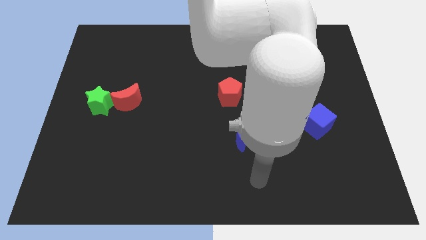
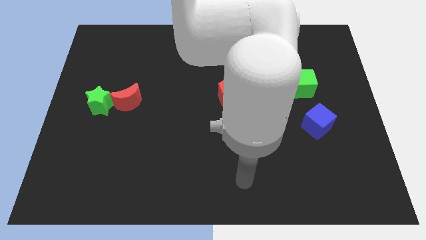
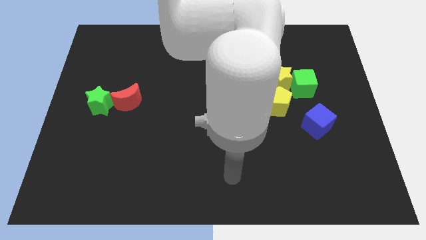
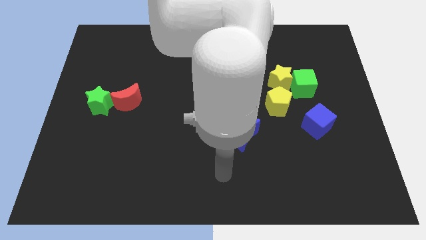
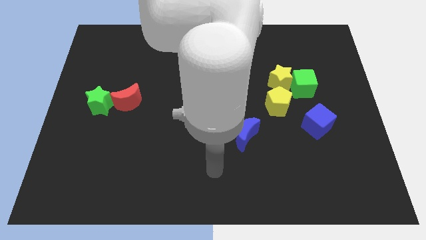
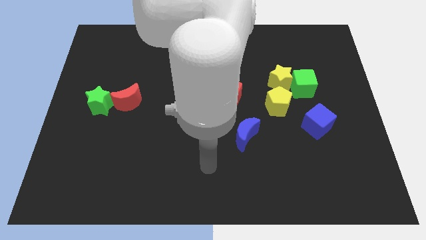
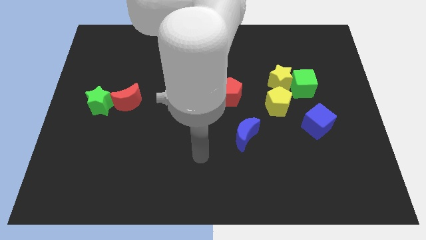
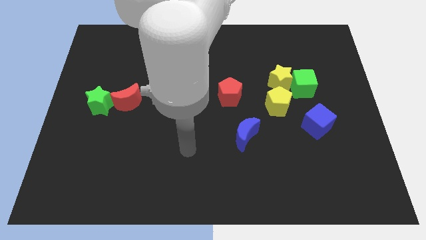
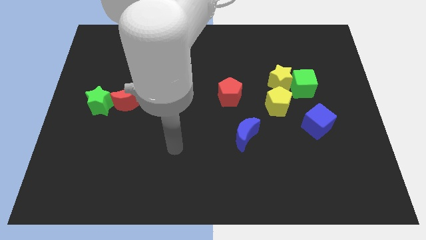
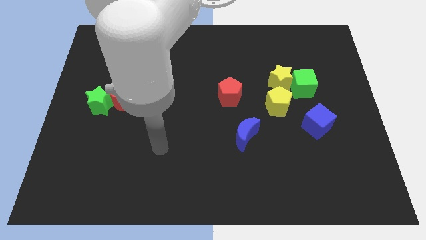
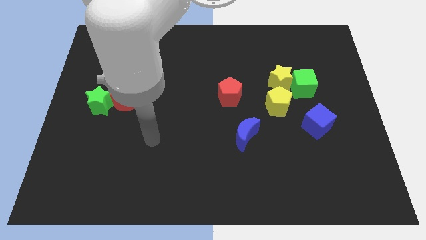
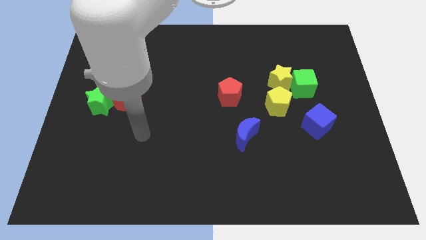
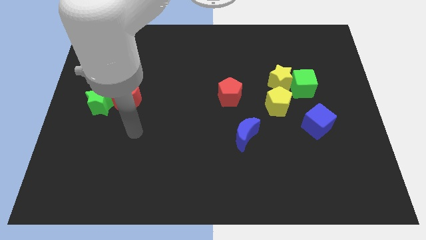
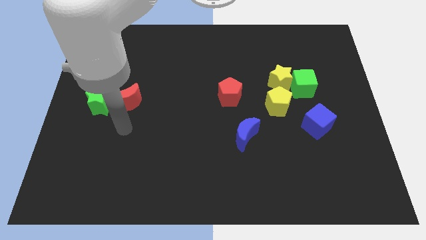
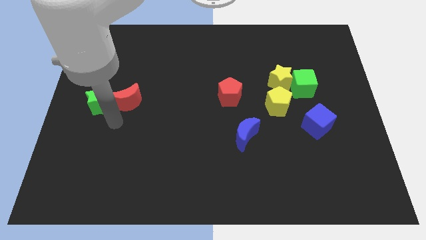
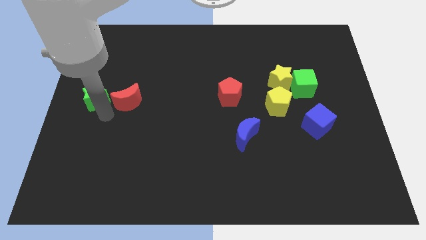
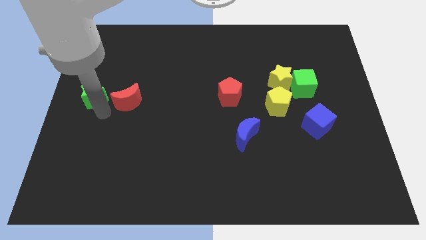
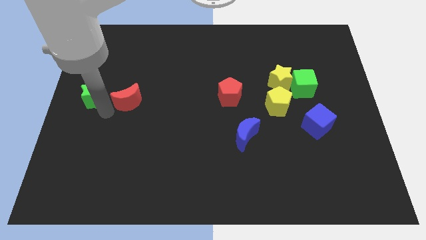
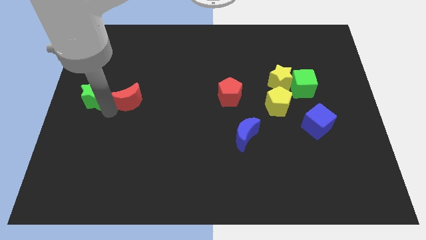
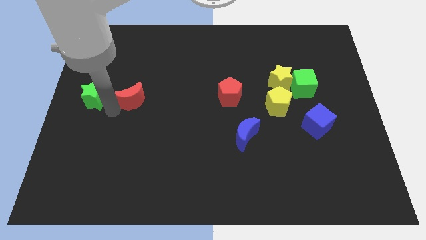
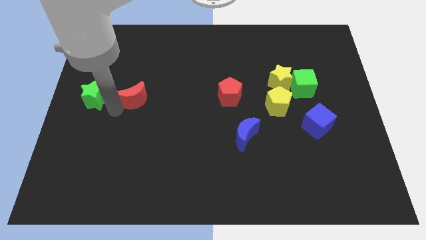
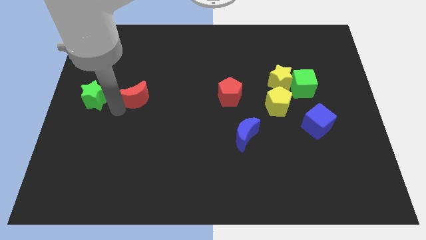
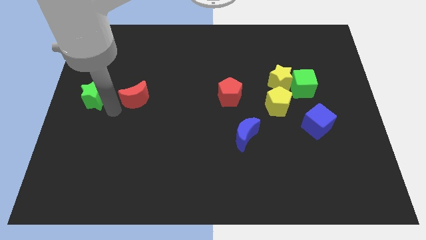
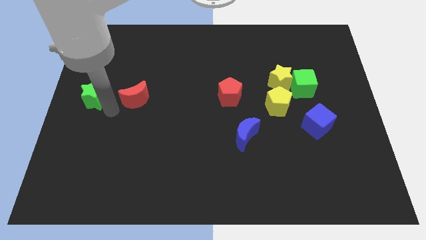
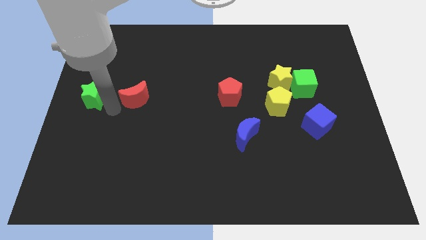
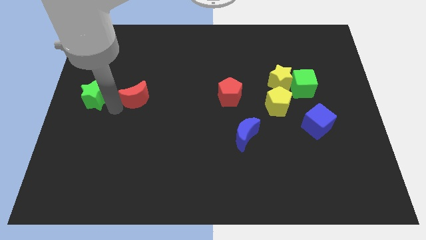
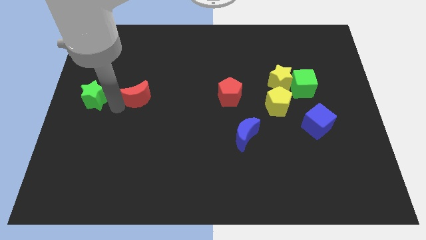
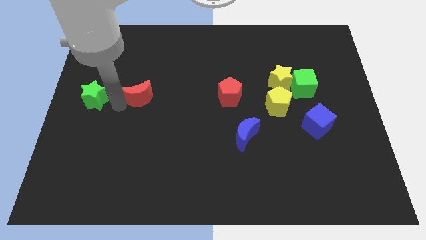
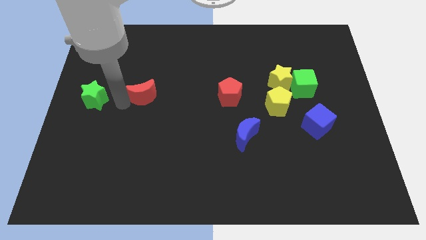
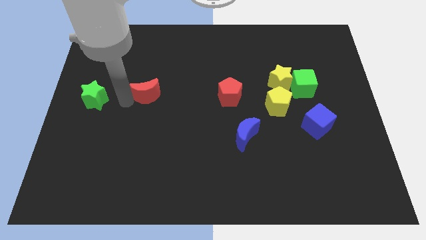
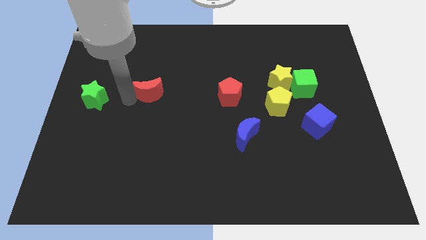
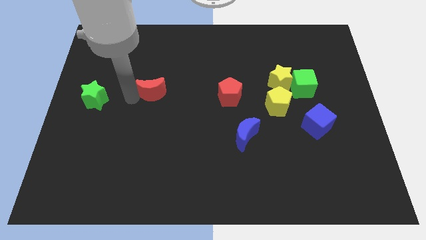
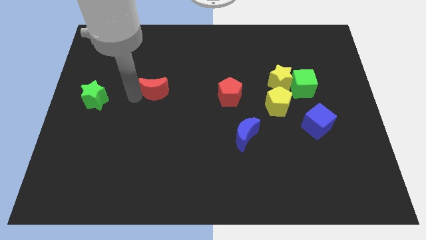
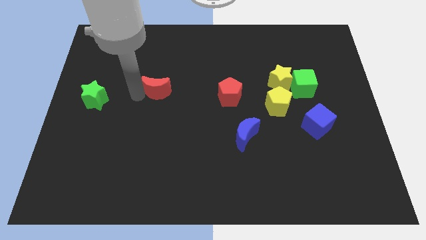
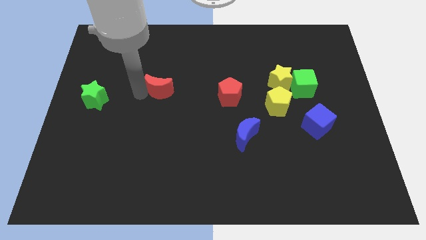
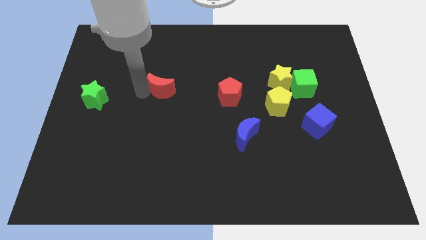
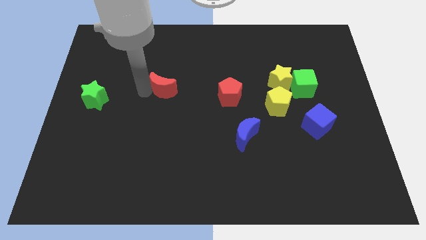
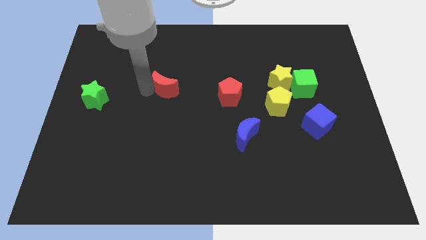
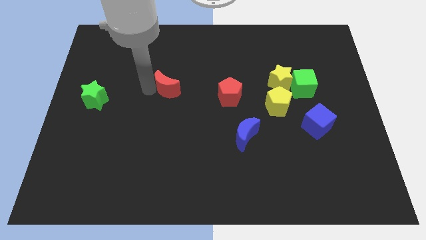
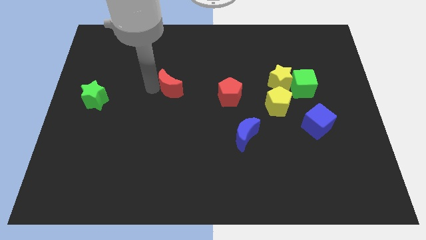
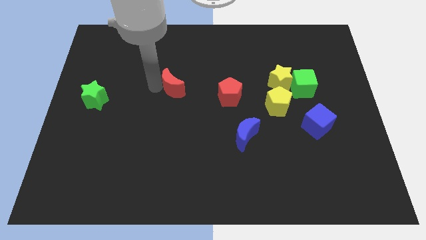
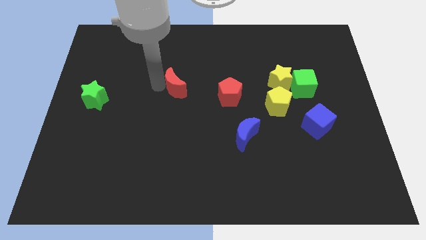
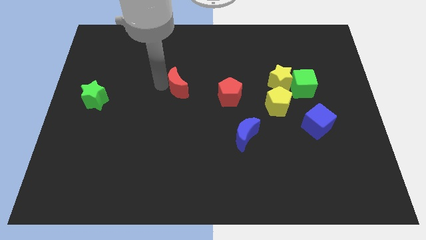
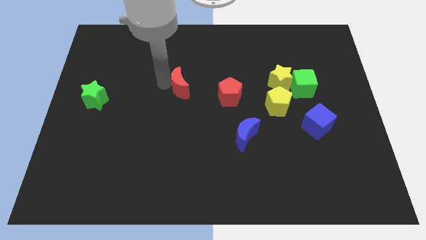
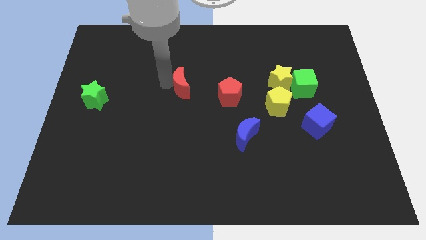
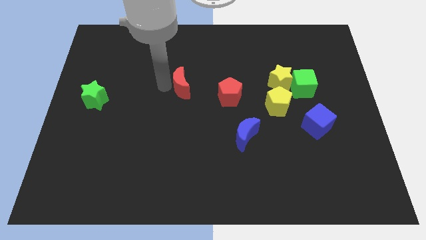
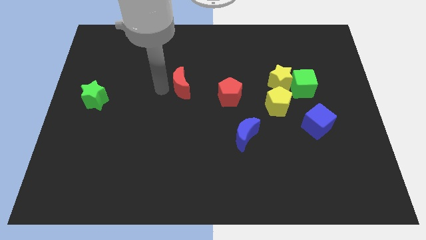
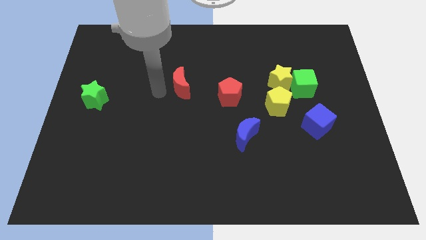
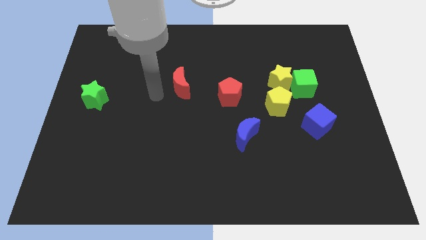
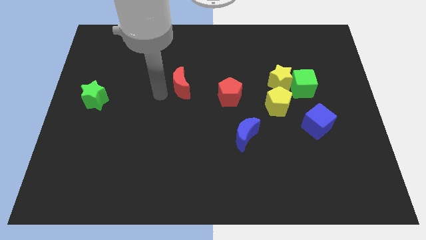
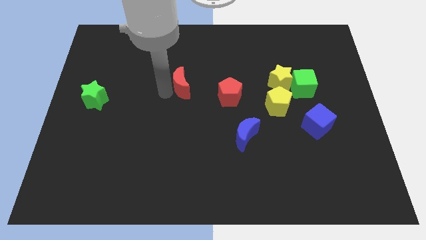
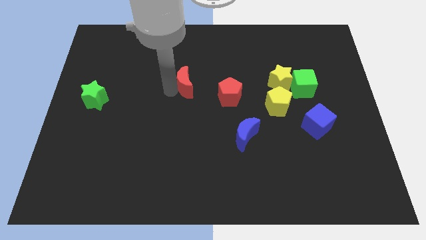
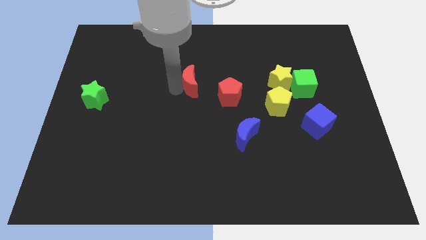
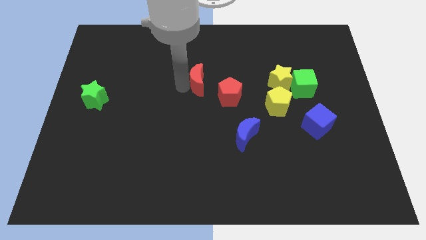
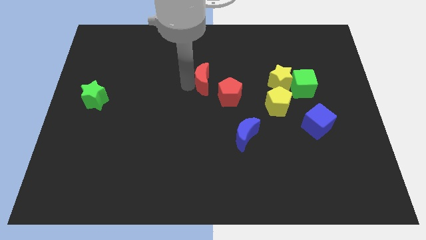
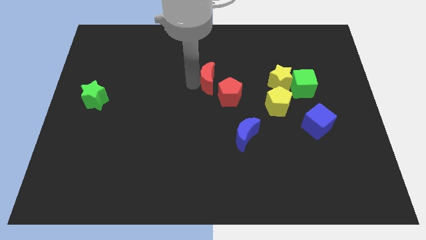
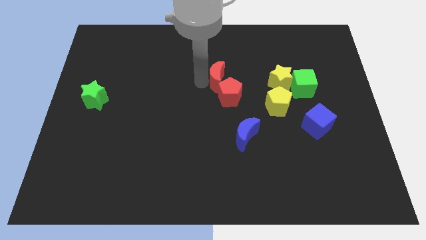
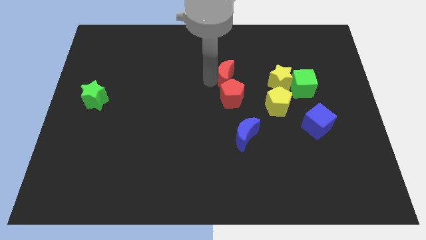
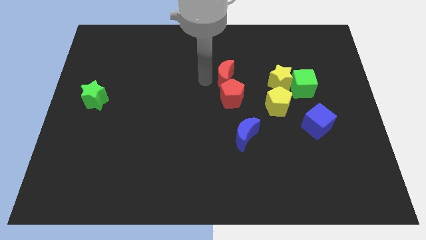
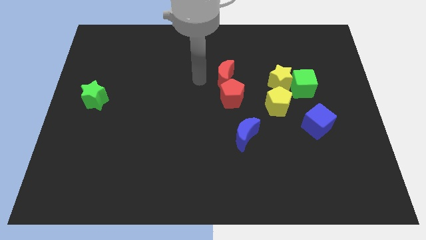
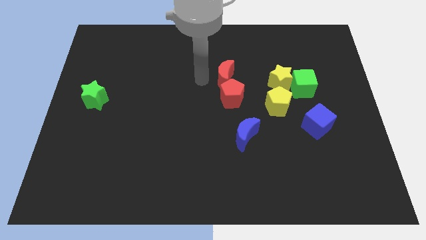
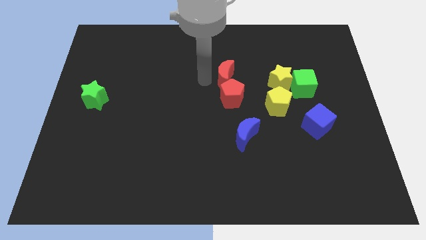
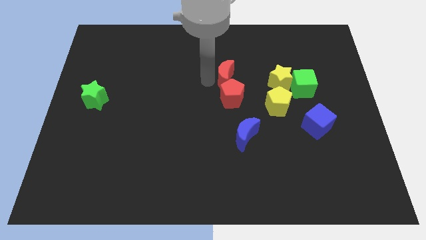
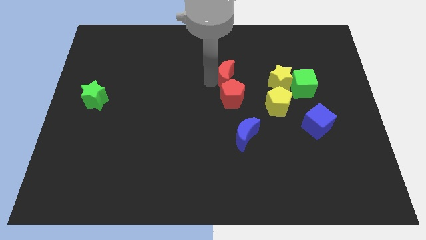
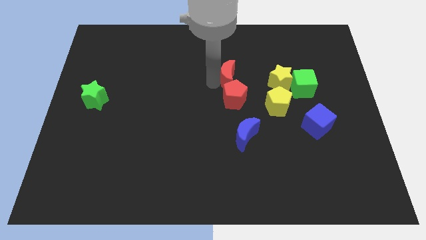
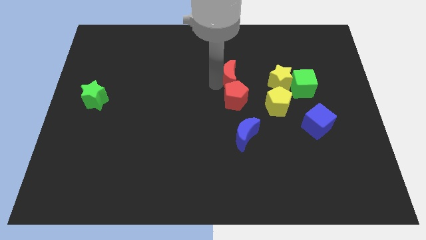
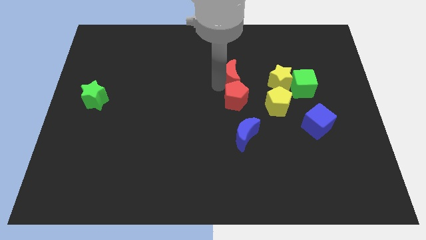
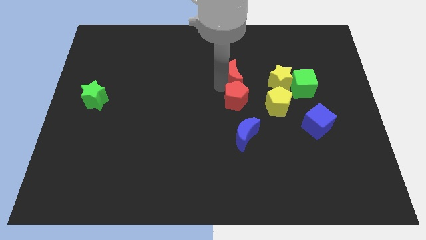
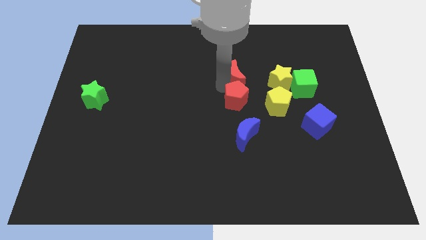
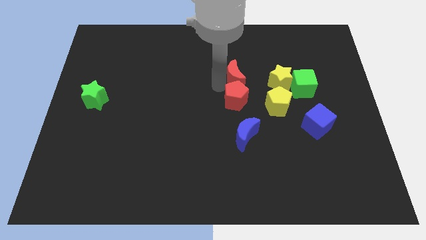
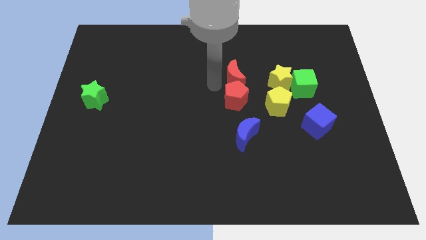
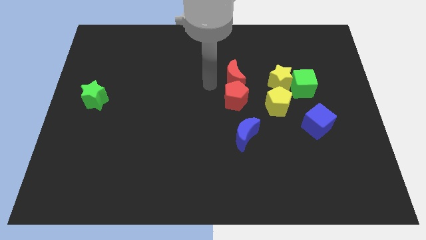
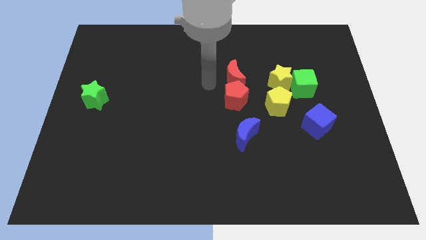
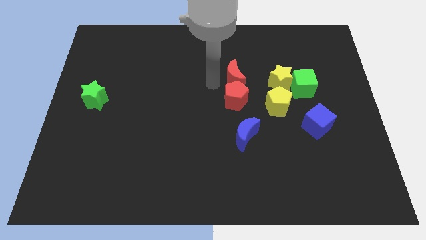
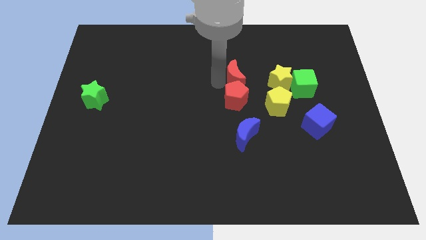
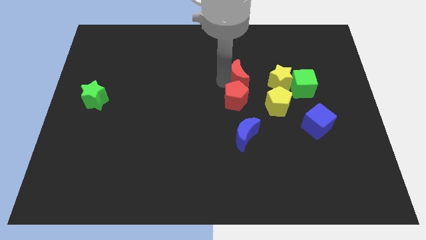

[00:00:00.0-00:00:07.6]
slide the red moon left of the green cube
